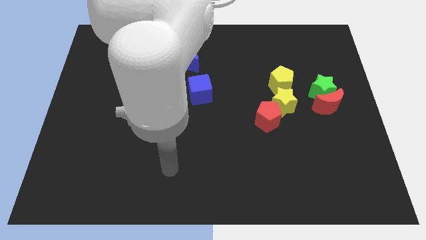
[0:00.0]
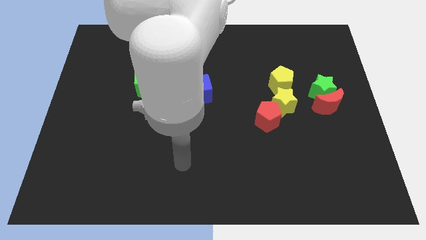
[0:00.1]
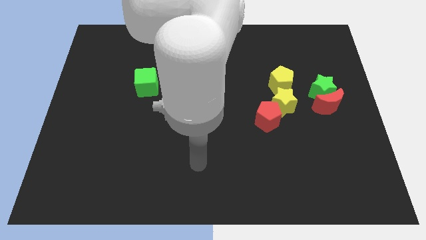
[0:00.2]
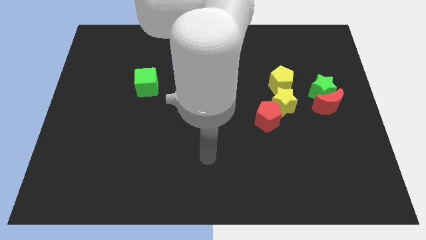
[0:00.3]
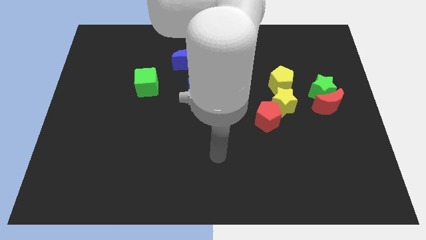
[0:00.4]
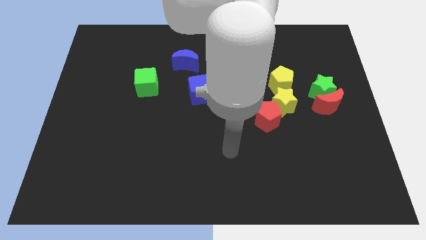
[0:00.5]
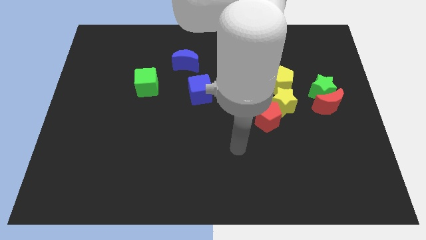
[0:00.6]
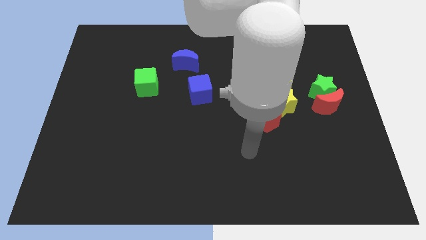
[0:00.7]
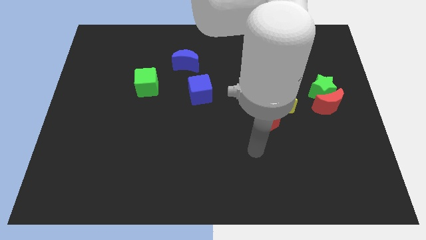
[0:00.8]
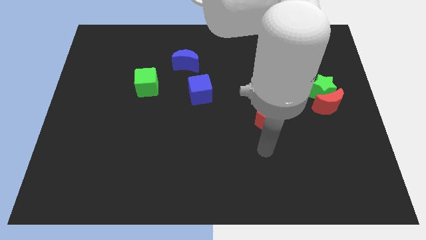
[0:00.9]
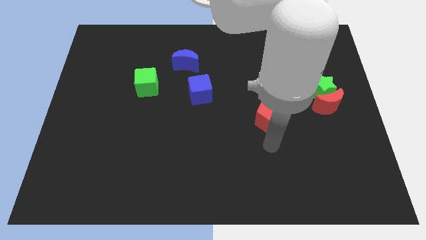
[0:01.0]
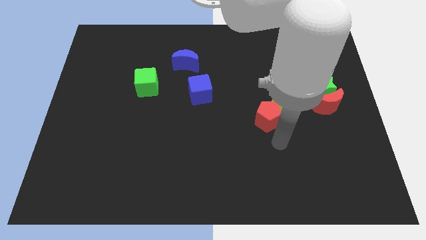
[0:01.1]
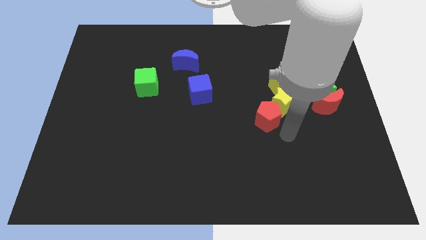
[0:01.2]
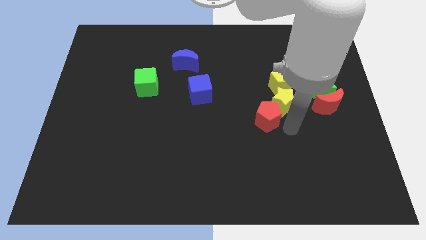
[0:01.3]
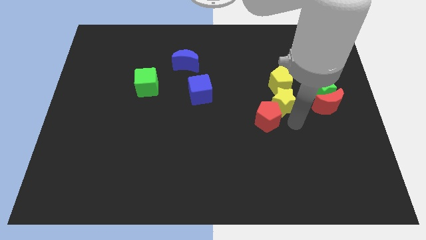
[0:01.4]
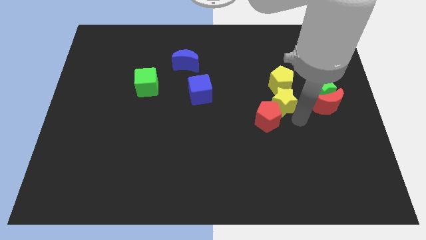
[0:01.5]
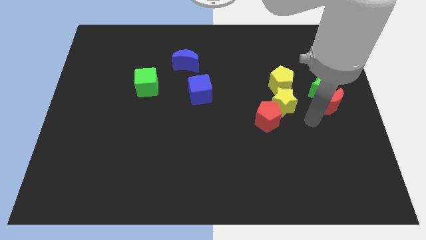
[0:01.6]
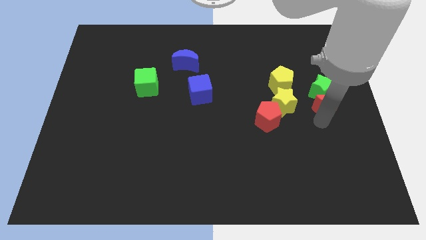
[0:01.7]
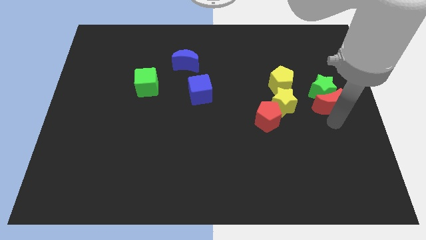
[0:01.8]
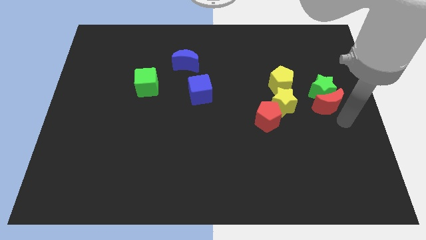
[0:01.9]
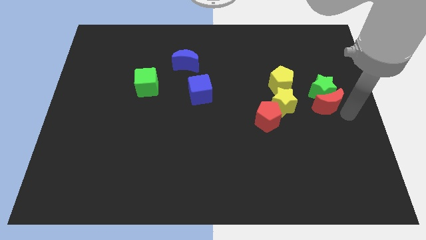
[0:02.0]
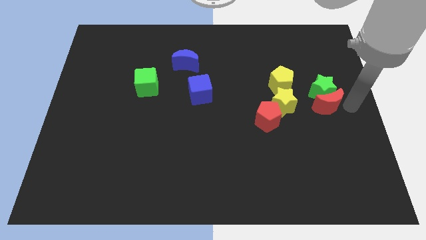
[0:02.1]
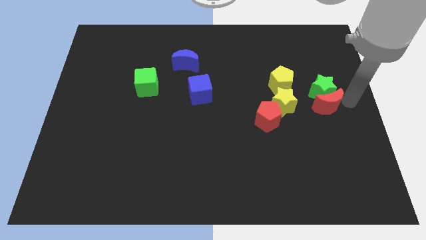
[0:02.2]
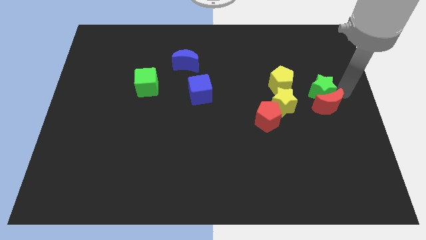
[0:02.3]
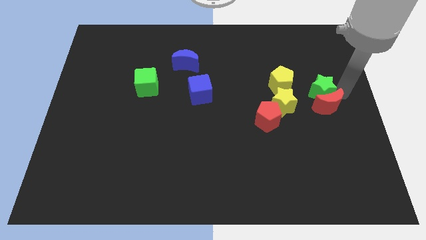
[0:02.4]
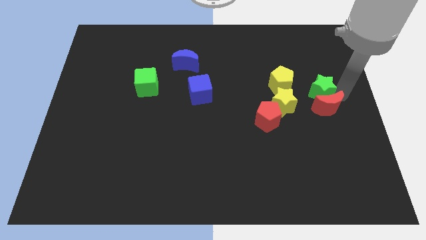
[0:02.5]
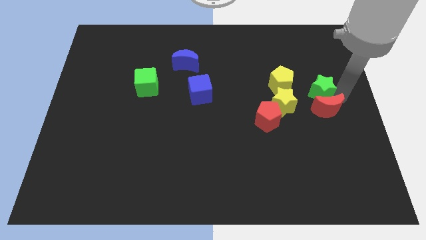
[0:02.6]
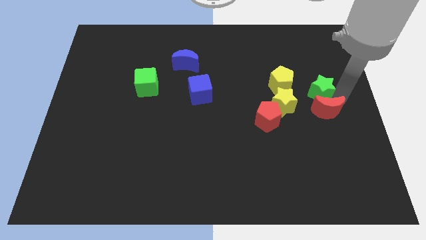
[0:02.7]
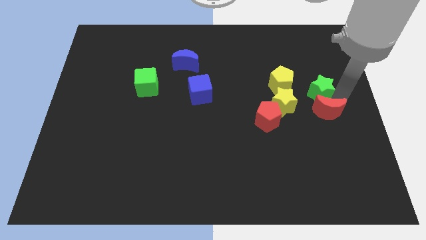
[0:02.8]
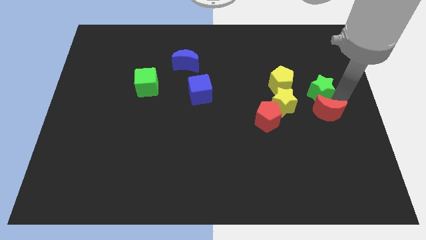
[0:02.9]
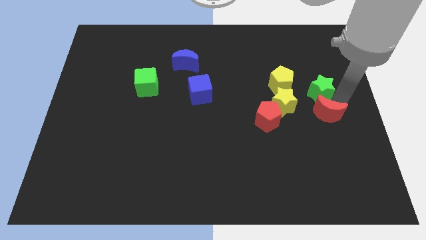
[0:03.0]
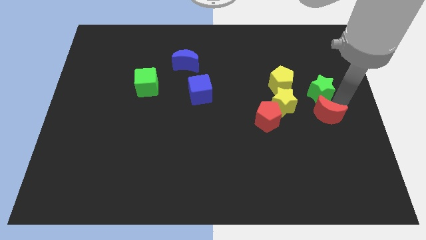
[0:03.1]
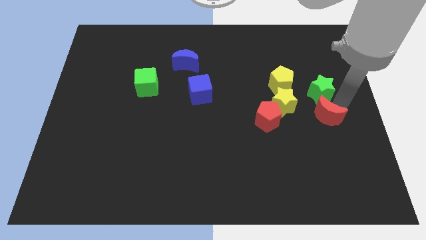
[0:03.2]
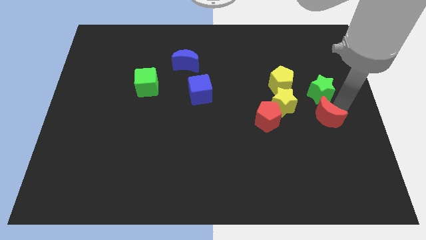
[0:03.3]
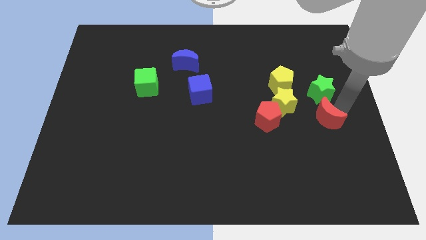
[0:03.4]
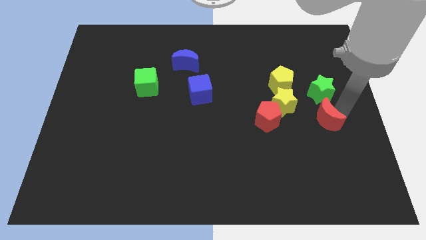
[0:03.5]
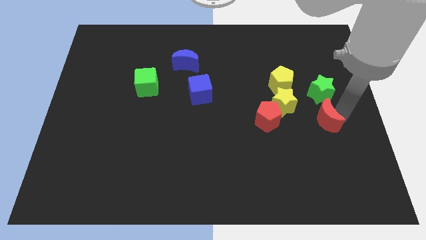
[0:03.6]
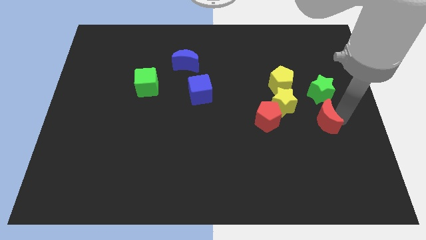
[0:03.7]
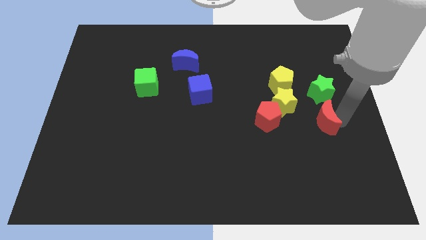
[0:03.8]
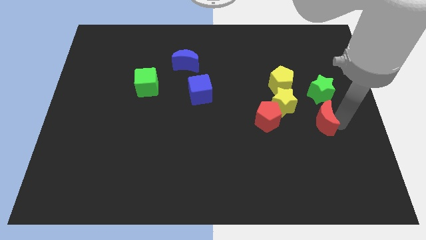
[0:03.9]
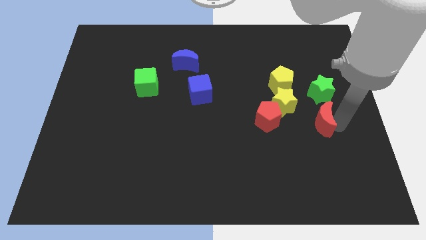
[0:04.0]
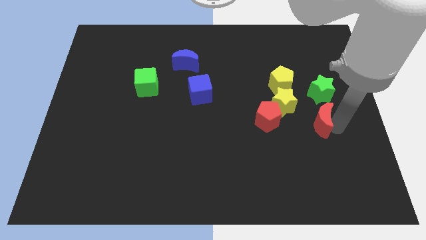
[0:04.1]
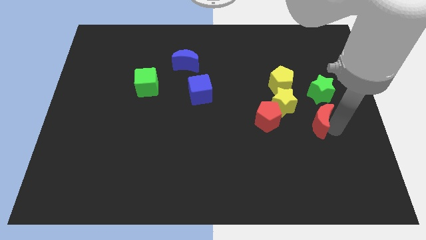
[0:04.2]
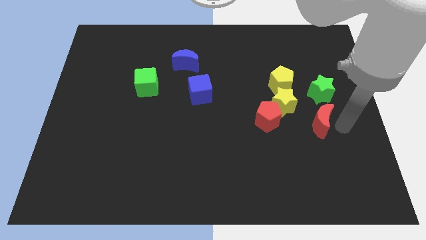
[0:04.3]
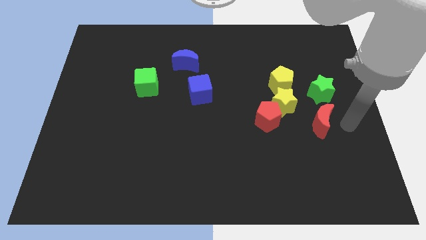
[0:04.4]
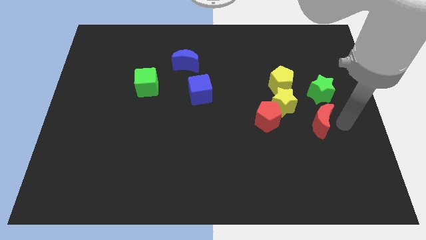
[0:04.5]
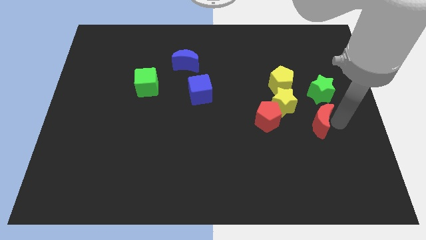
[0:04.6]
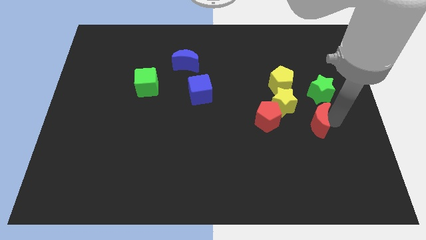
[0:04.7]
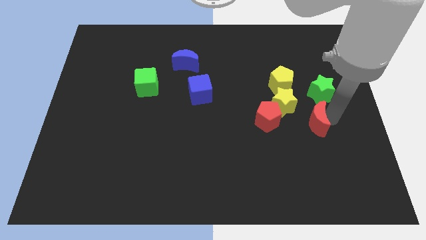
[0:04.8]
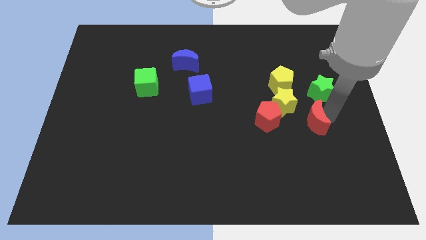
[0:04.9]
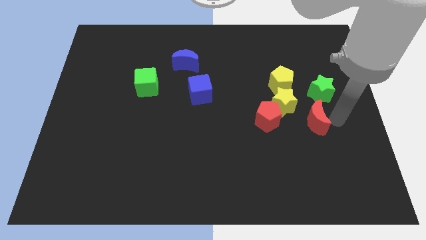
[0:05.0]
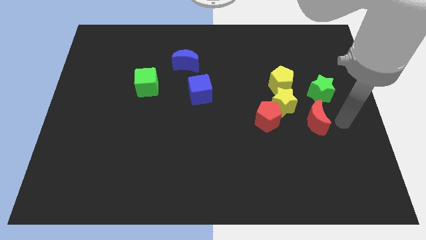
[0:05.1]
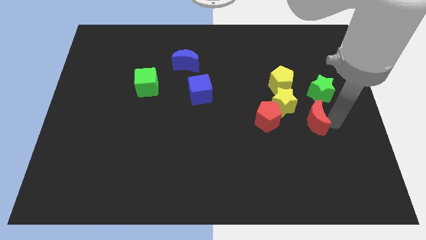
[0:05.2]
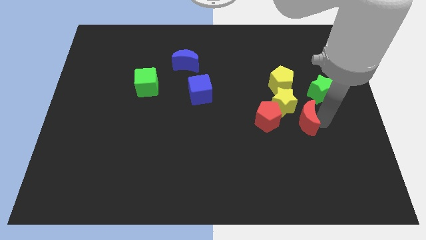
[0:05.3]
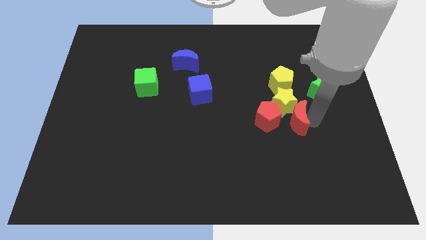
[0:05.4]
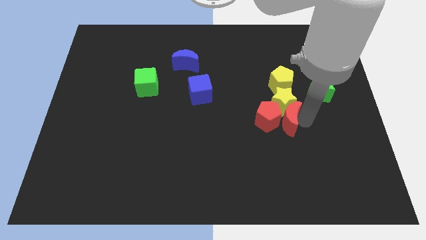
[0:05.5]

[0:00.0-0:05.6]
move the red moon next to the red pentagon
